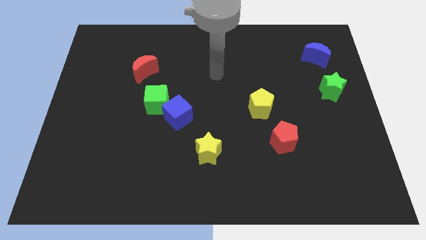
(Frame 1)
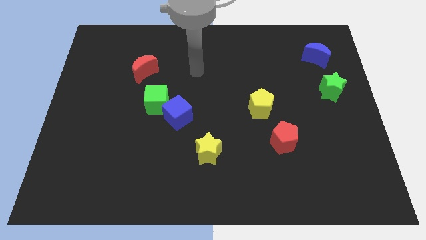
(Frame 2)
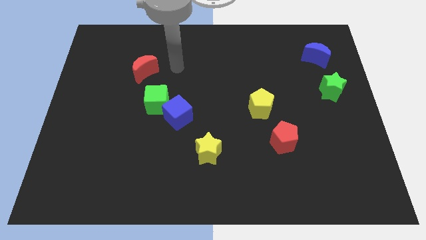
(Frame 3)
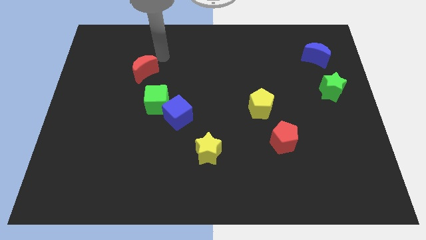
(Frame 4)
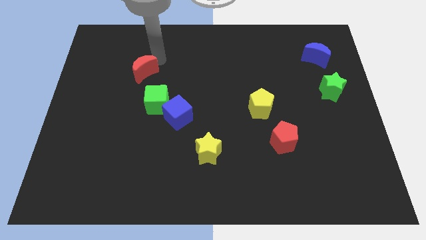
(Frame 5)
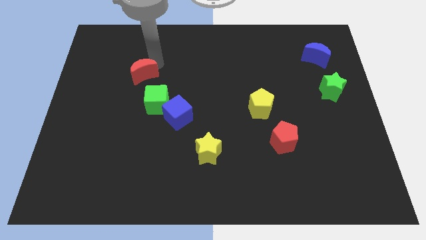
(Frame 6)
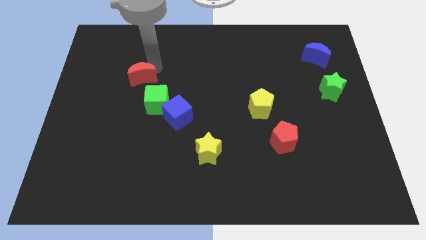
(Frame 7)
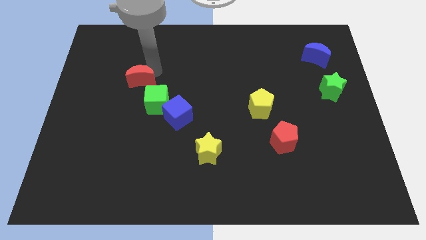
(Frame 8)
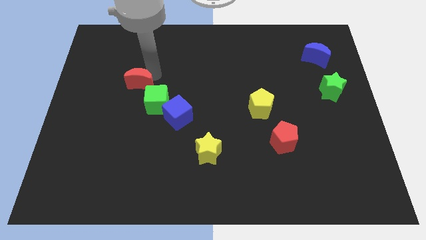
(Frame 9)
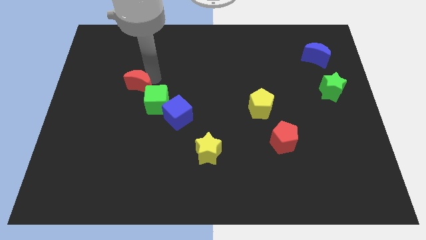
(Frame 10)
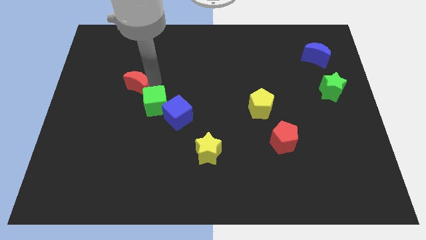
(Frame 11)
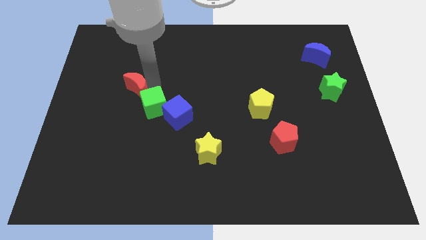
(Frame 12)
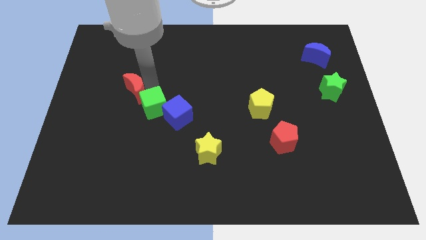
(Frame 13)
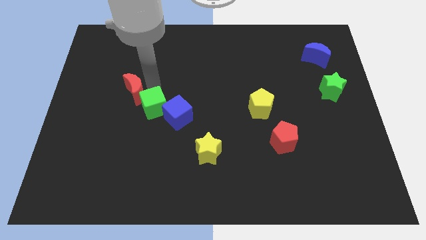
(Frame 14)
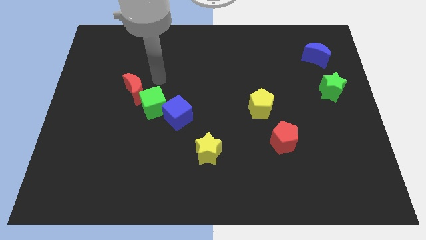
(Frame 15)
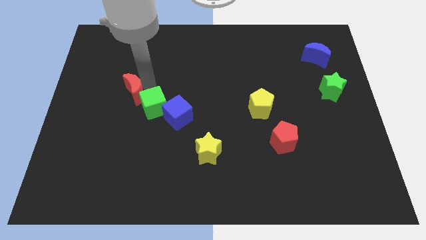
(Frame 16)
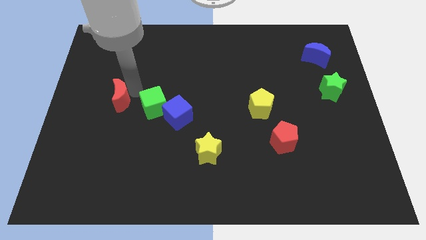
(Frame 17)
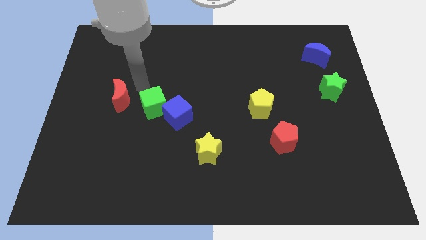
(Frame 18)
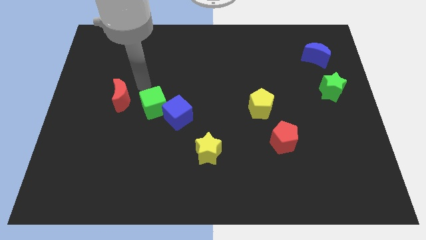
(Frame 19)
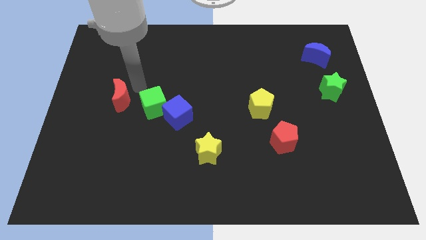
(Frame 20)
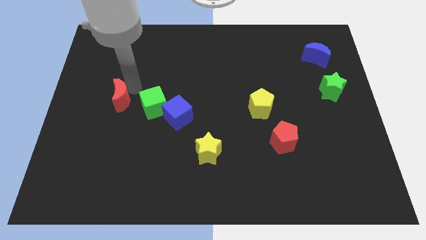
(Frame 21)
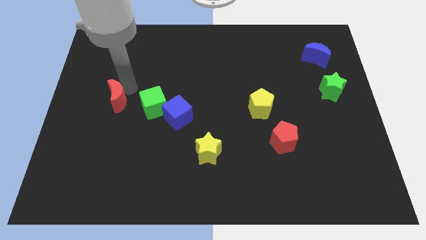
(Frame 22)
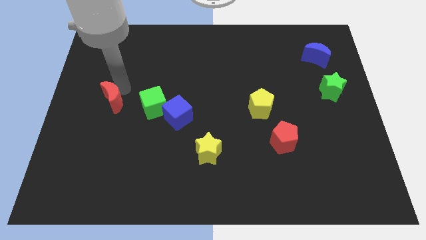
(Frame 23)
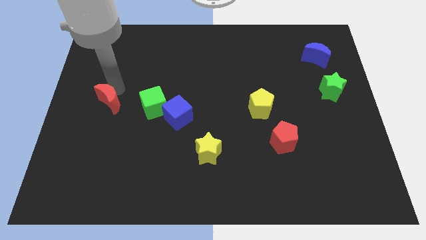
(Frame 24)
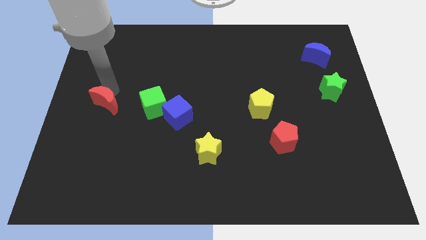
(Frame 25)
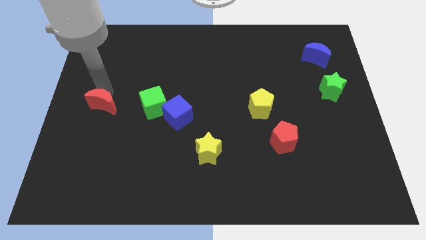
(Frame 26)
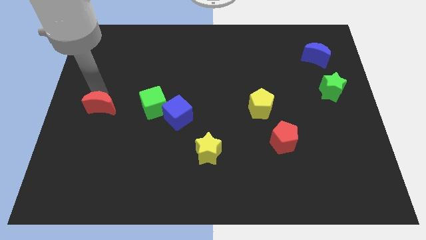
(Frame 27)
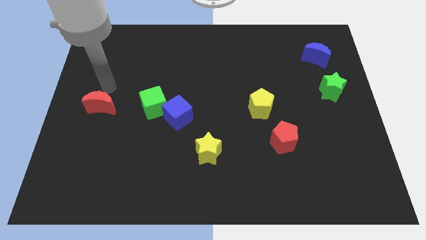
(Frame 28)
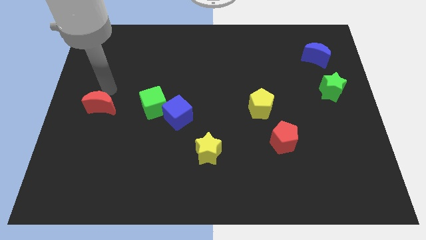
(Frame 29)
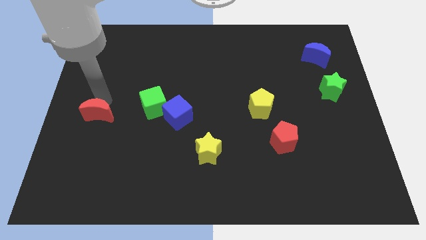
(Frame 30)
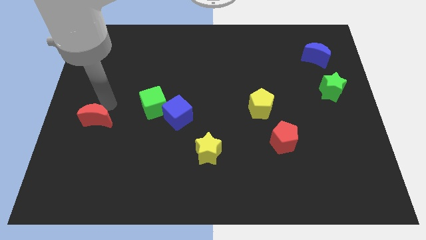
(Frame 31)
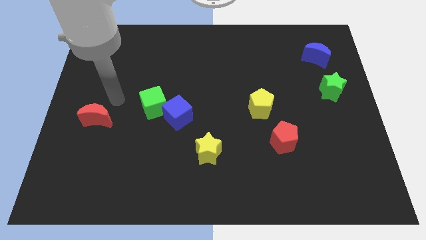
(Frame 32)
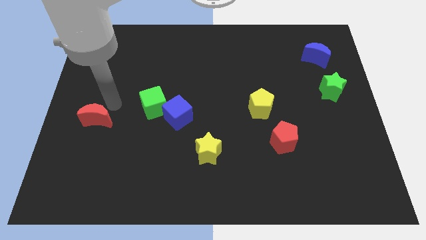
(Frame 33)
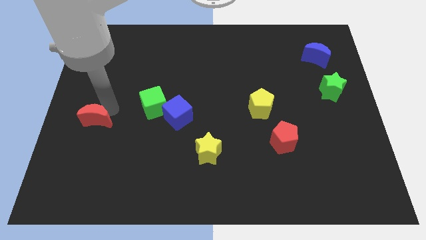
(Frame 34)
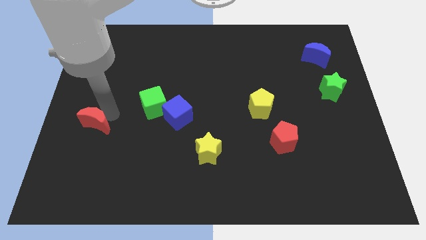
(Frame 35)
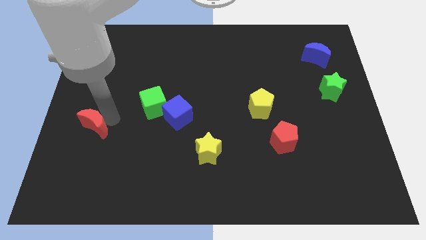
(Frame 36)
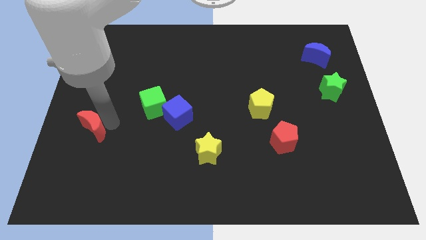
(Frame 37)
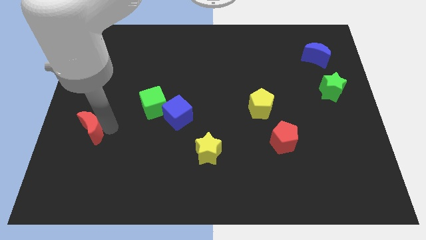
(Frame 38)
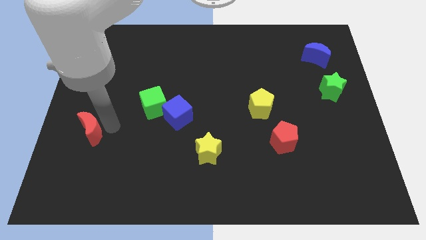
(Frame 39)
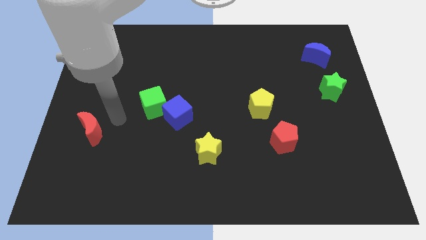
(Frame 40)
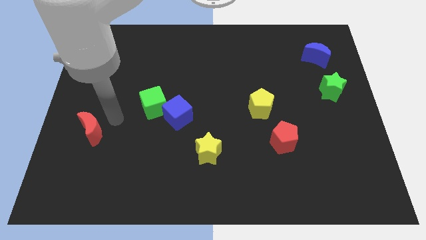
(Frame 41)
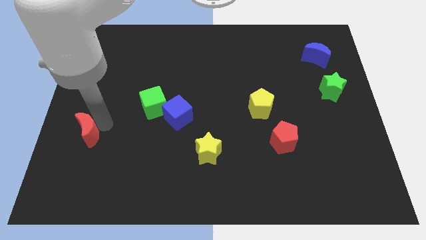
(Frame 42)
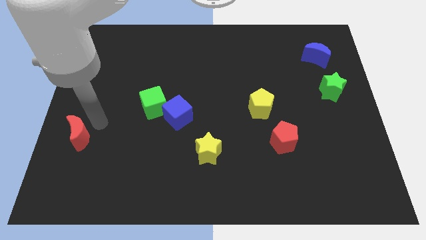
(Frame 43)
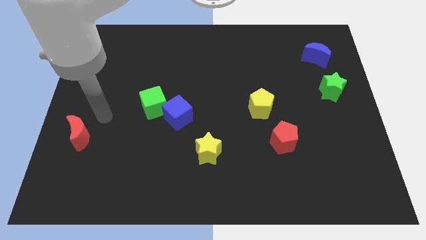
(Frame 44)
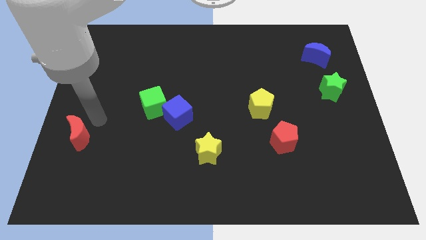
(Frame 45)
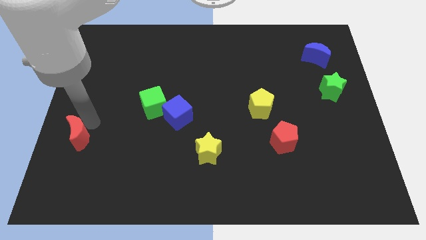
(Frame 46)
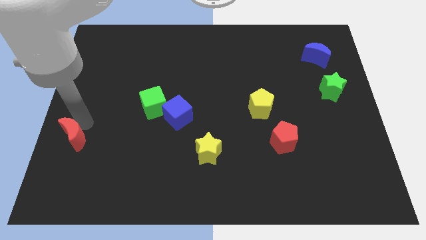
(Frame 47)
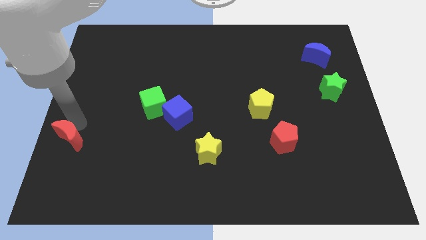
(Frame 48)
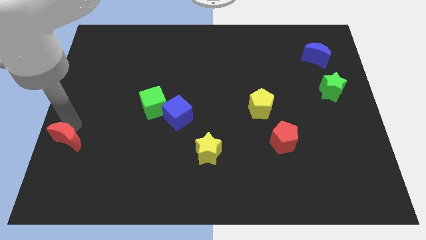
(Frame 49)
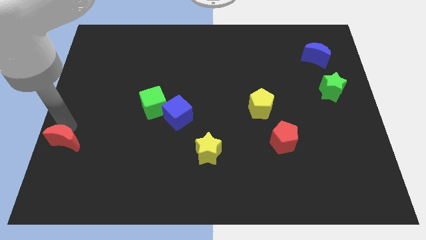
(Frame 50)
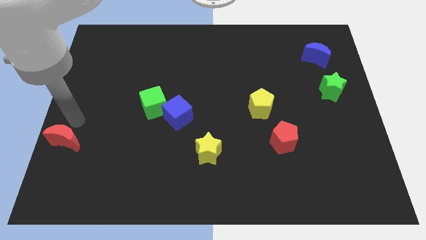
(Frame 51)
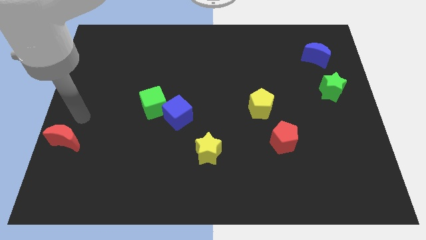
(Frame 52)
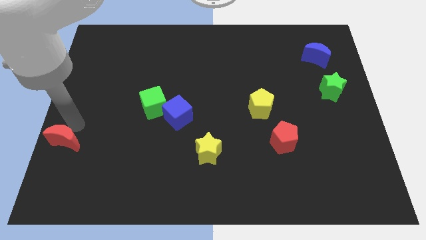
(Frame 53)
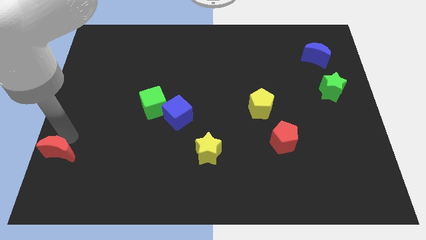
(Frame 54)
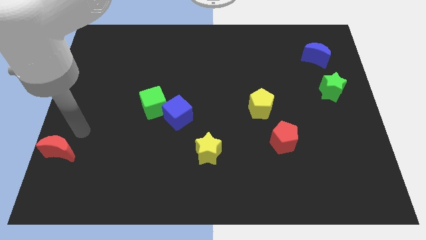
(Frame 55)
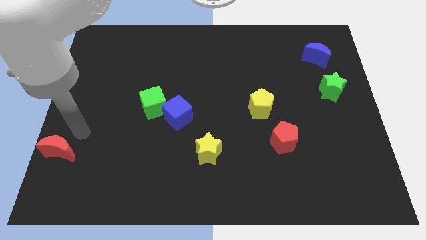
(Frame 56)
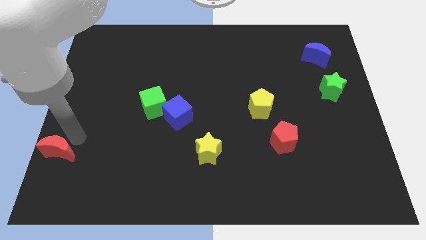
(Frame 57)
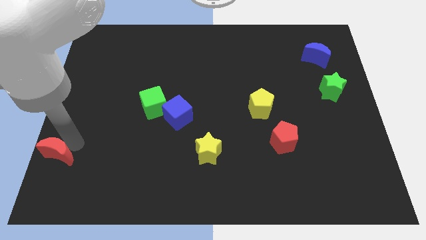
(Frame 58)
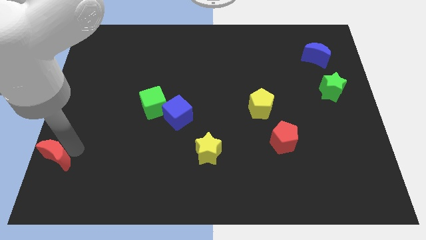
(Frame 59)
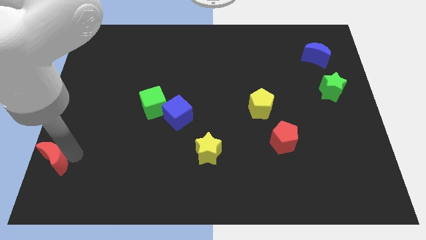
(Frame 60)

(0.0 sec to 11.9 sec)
slide the red moon to the bottom left
